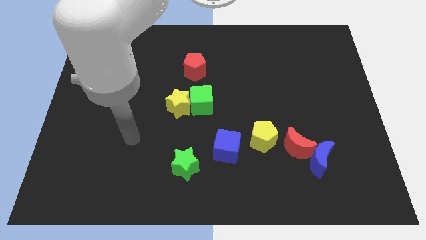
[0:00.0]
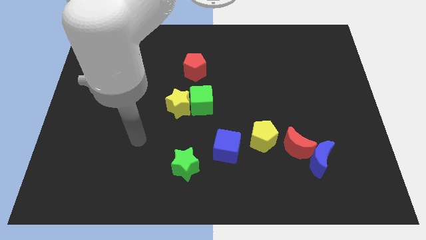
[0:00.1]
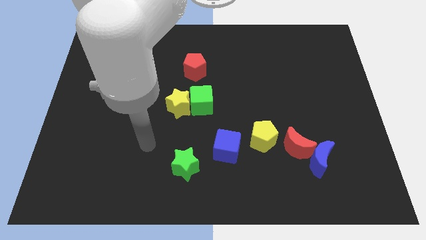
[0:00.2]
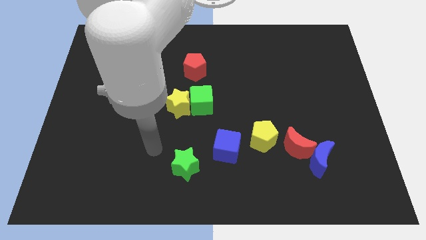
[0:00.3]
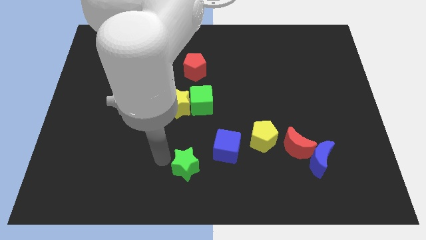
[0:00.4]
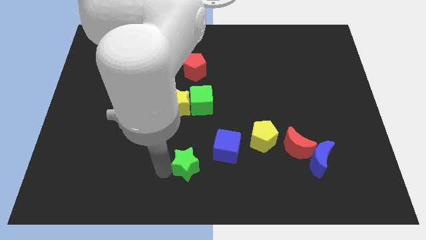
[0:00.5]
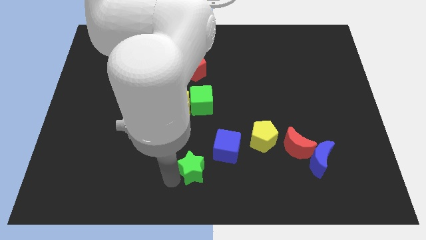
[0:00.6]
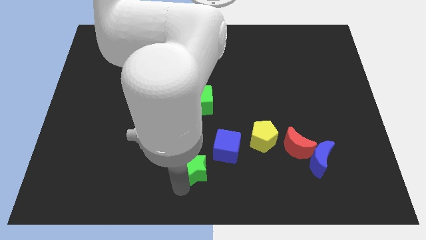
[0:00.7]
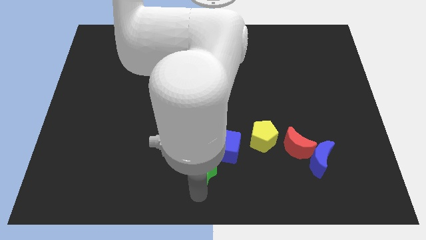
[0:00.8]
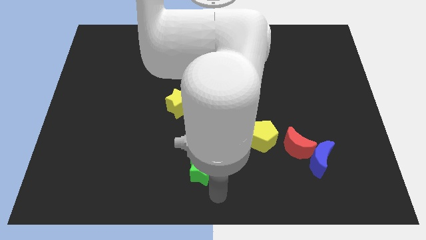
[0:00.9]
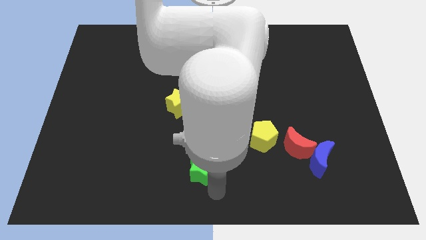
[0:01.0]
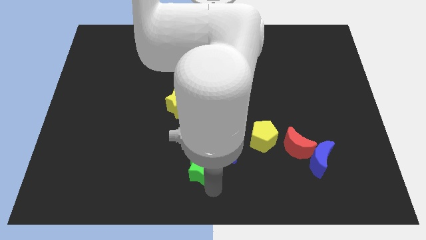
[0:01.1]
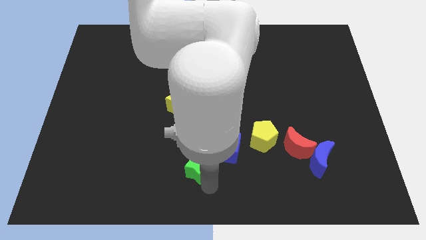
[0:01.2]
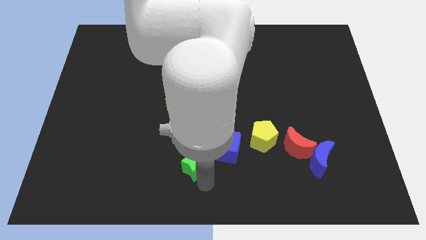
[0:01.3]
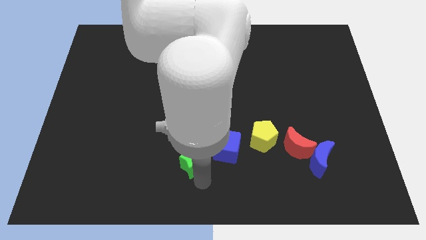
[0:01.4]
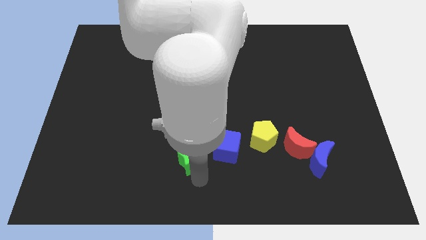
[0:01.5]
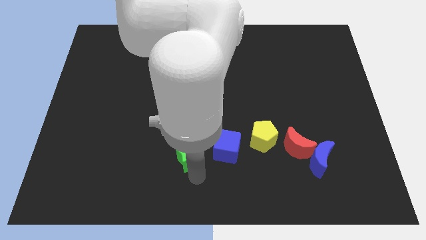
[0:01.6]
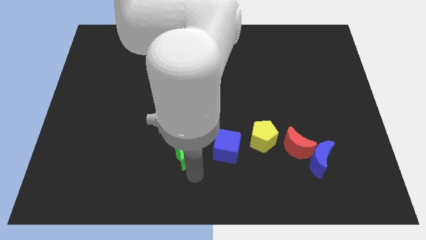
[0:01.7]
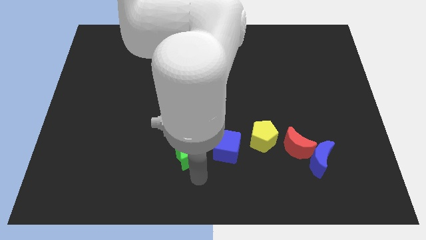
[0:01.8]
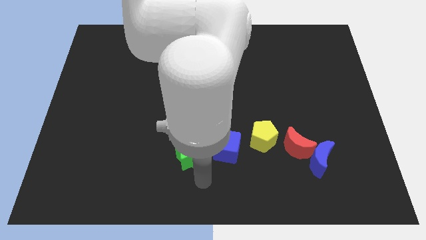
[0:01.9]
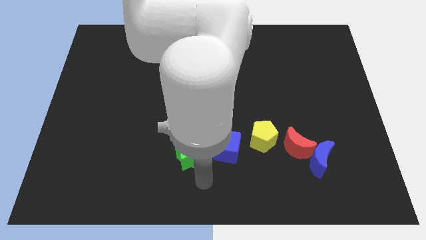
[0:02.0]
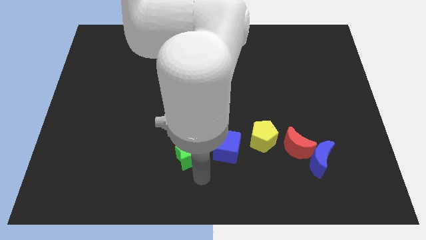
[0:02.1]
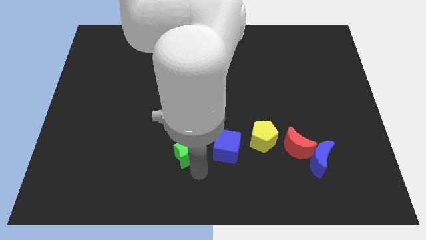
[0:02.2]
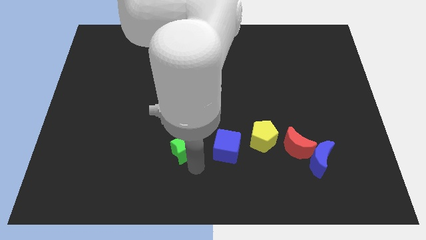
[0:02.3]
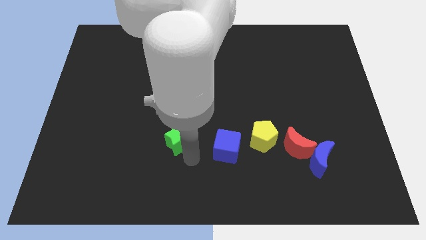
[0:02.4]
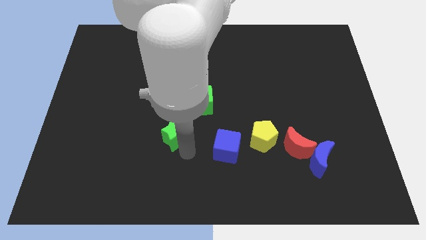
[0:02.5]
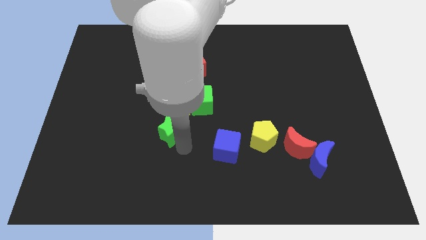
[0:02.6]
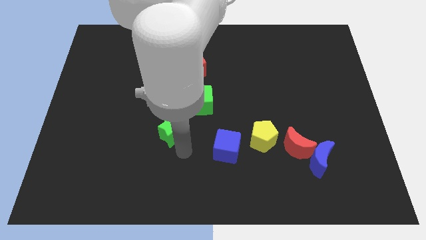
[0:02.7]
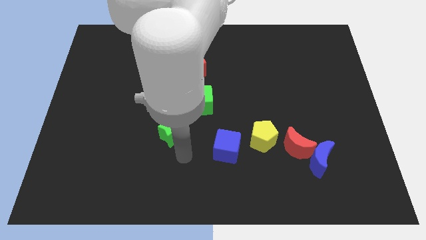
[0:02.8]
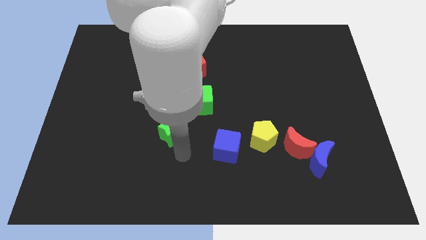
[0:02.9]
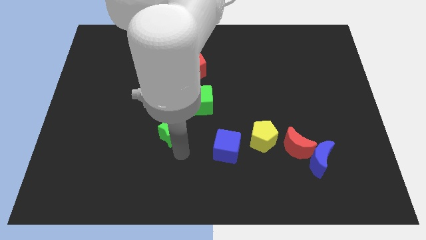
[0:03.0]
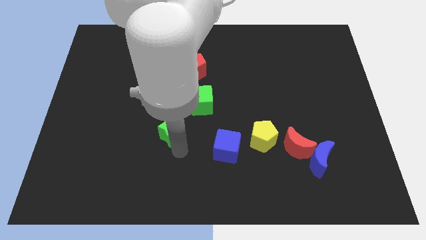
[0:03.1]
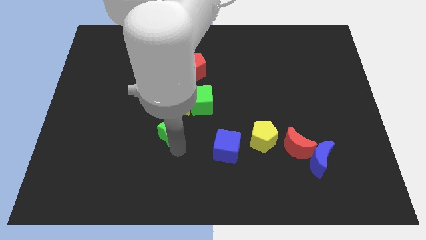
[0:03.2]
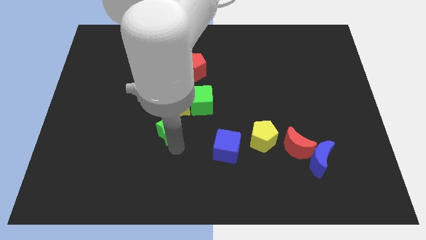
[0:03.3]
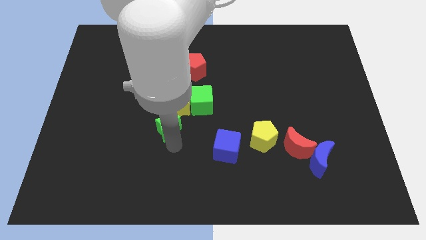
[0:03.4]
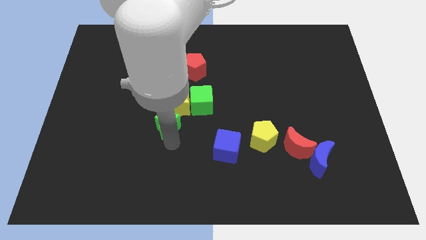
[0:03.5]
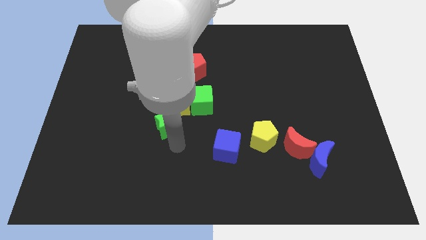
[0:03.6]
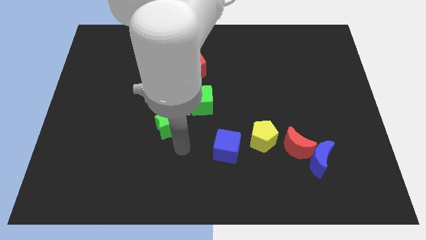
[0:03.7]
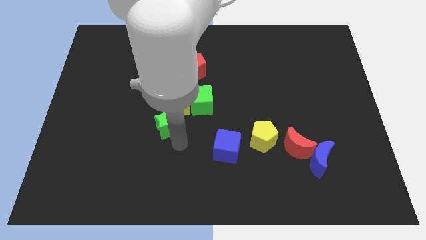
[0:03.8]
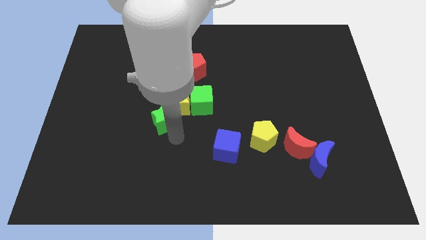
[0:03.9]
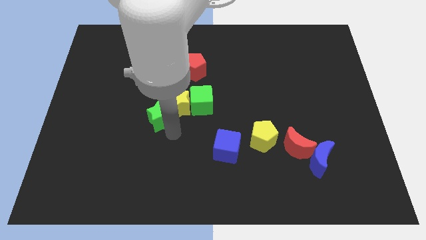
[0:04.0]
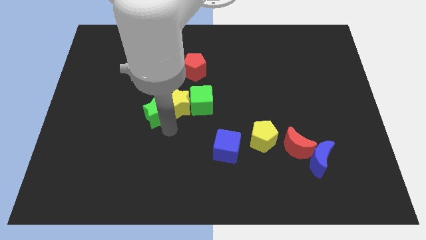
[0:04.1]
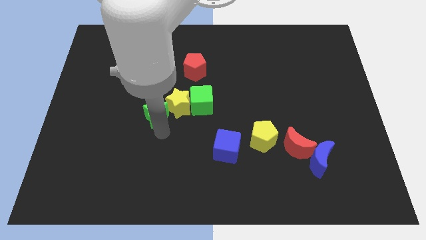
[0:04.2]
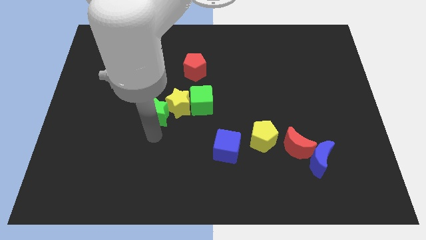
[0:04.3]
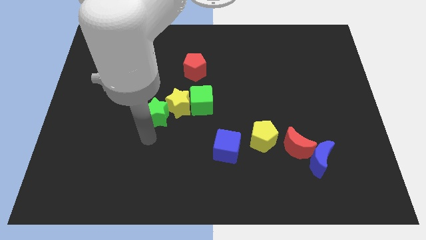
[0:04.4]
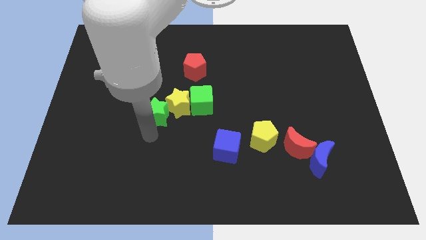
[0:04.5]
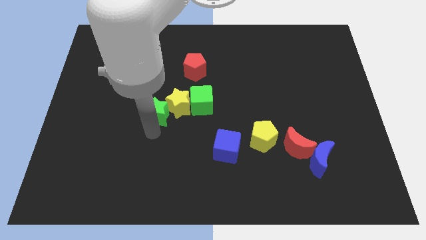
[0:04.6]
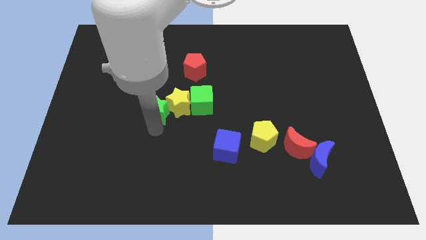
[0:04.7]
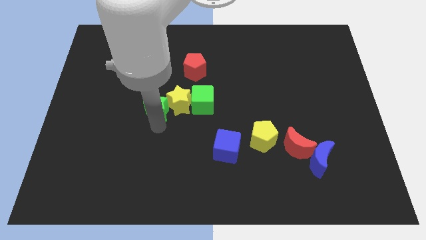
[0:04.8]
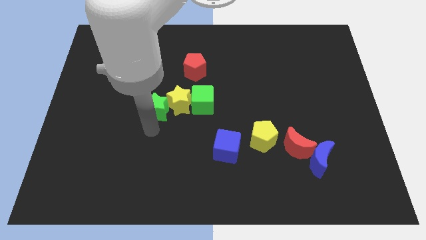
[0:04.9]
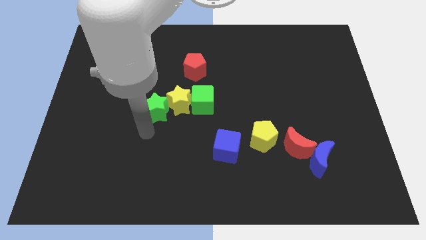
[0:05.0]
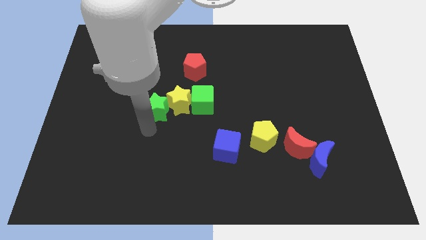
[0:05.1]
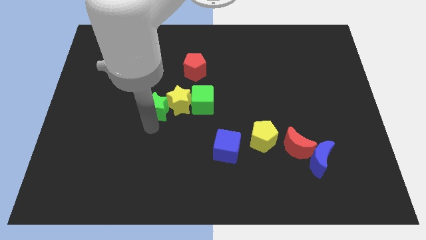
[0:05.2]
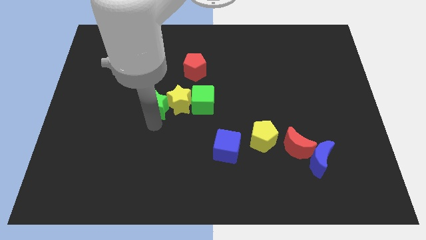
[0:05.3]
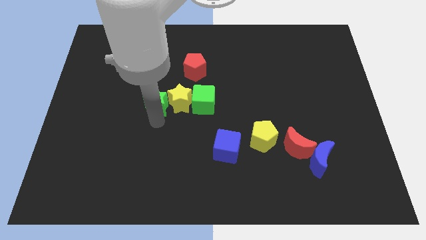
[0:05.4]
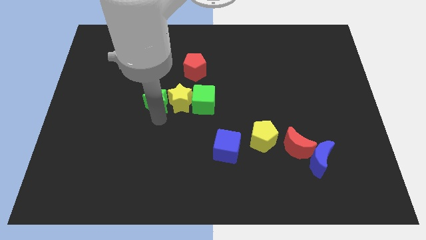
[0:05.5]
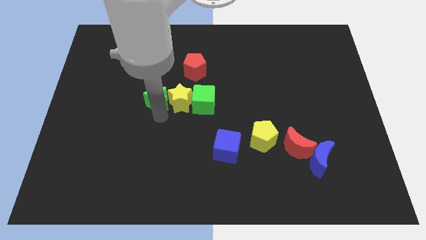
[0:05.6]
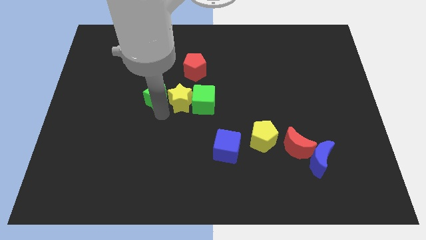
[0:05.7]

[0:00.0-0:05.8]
put the green star to the bottom left side of the red pentagon

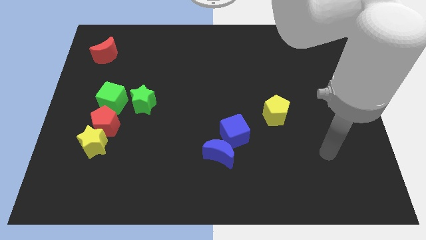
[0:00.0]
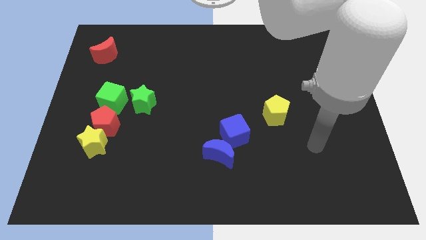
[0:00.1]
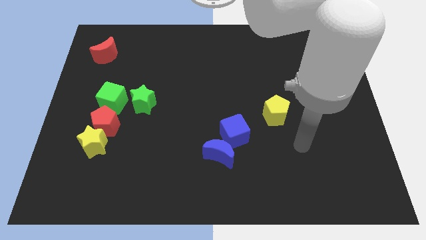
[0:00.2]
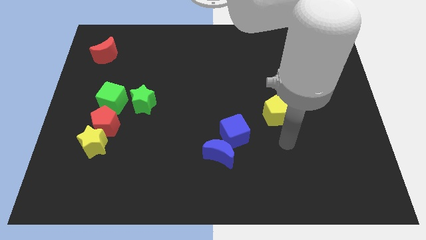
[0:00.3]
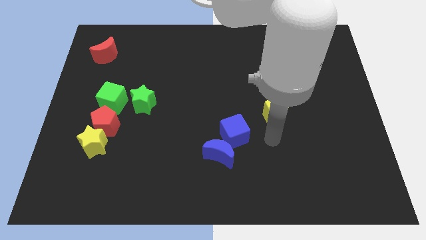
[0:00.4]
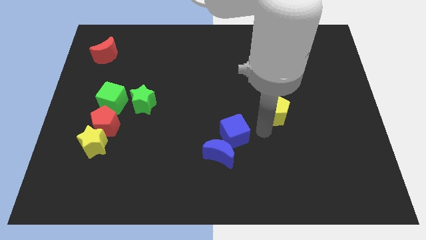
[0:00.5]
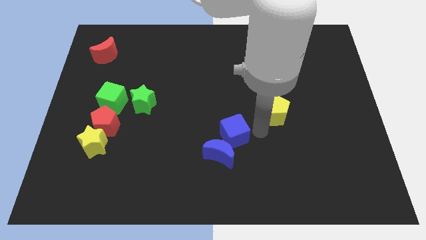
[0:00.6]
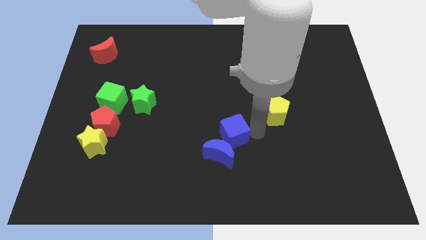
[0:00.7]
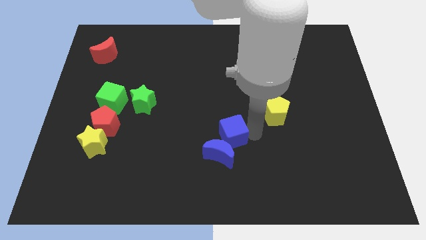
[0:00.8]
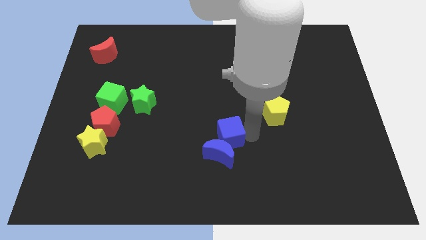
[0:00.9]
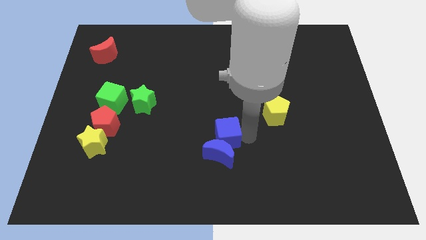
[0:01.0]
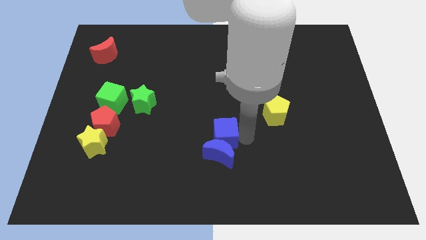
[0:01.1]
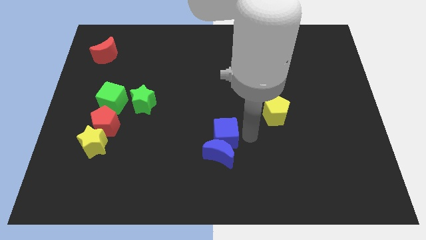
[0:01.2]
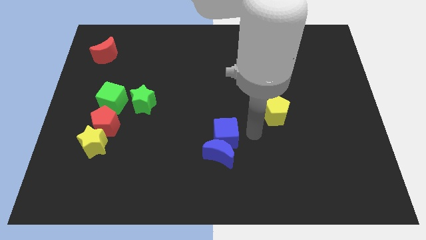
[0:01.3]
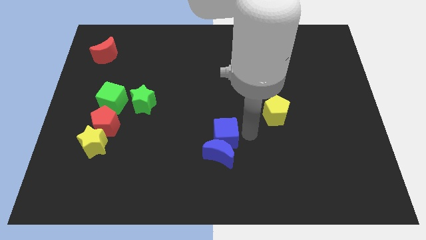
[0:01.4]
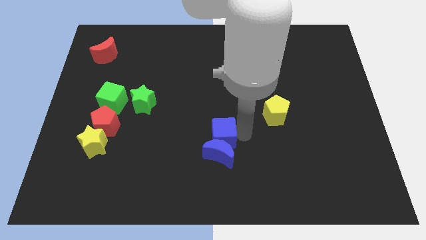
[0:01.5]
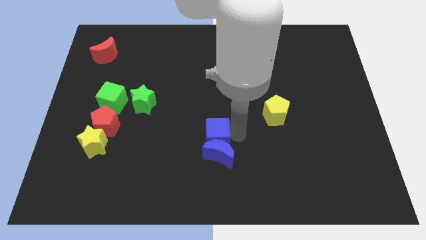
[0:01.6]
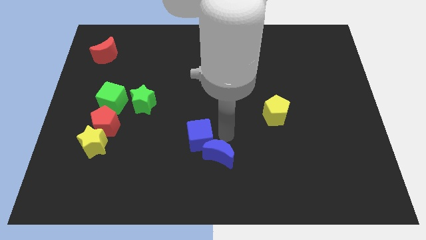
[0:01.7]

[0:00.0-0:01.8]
slide the blue cube to the left side of the blue moon
